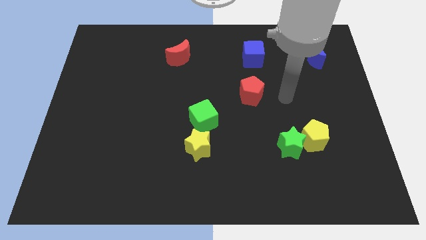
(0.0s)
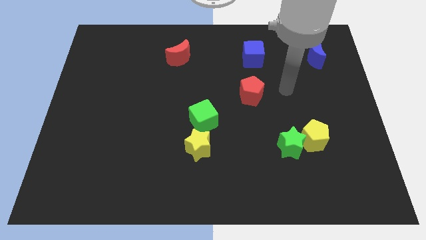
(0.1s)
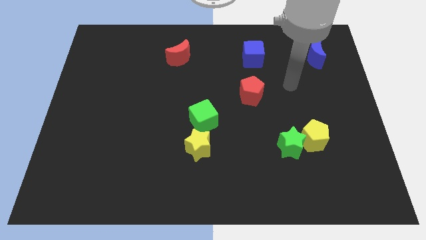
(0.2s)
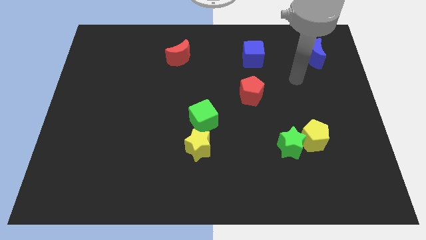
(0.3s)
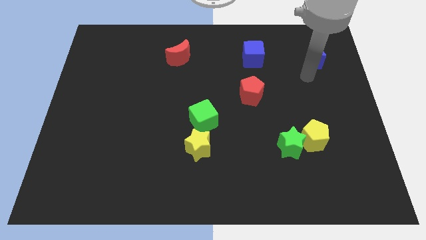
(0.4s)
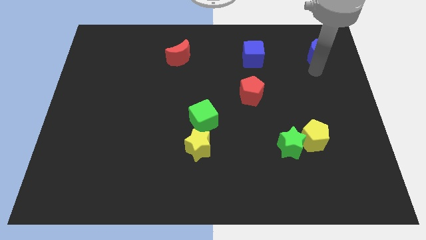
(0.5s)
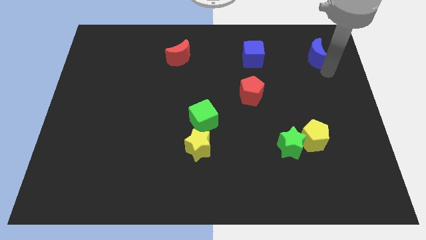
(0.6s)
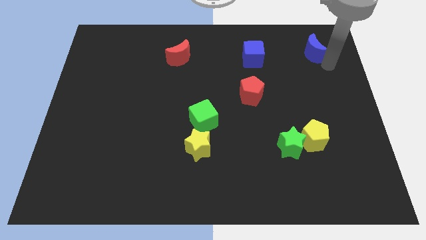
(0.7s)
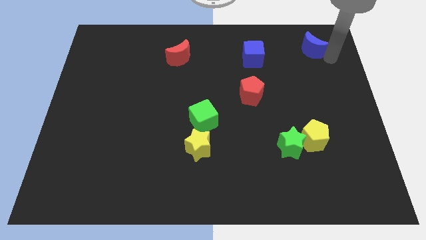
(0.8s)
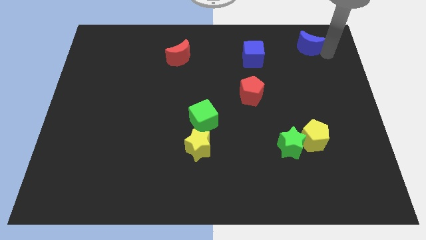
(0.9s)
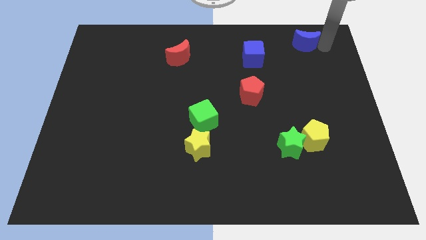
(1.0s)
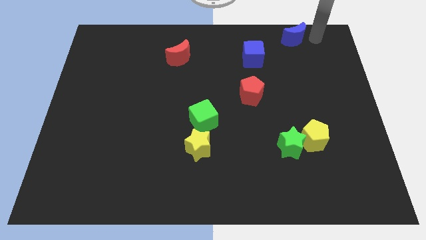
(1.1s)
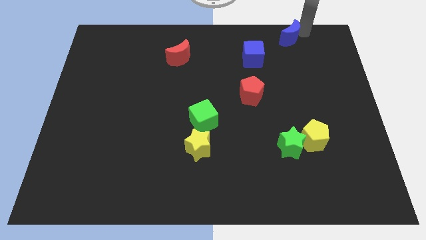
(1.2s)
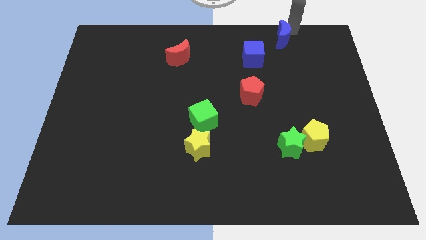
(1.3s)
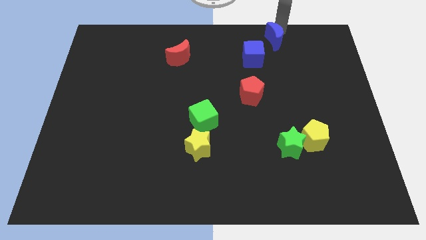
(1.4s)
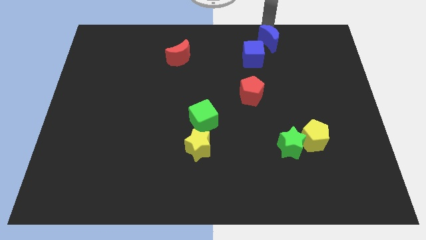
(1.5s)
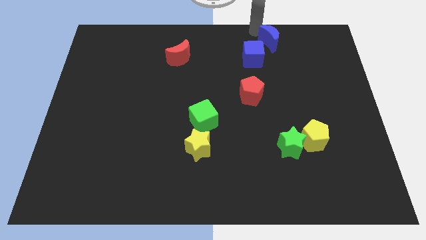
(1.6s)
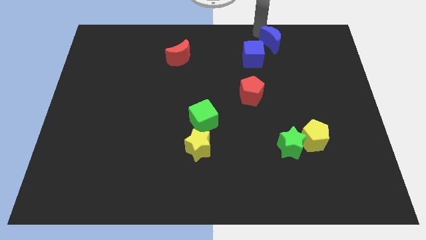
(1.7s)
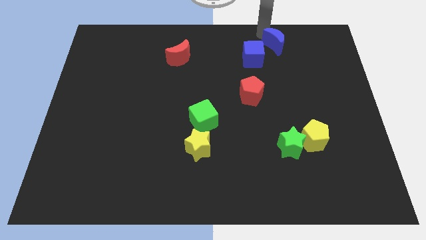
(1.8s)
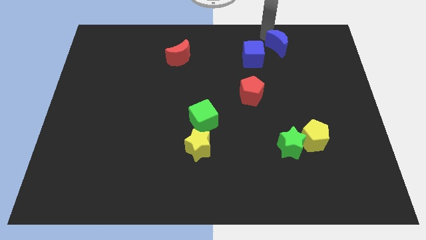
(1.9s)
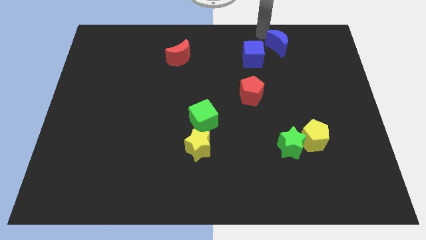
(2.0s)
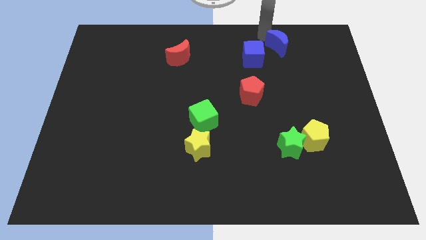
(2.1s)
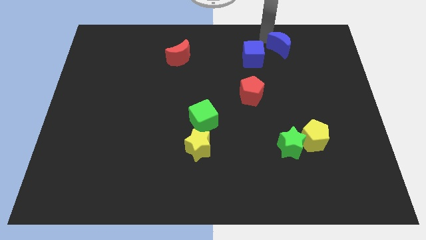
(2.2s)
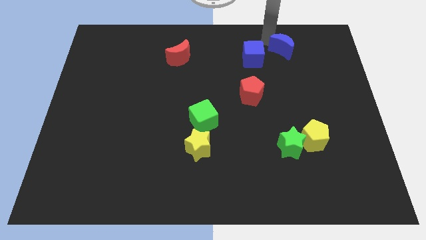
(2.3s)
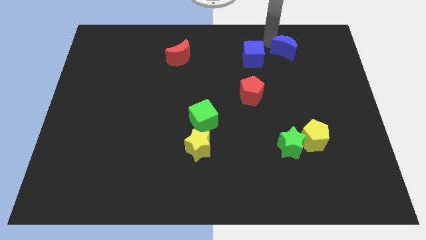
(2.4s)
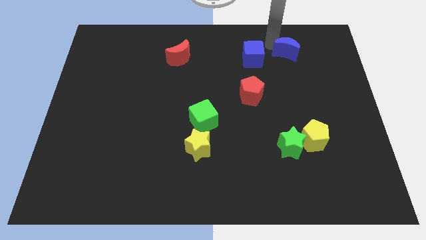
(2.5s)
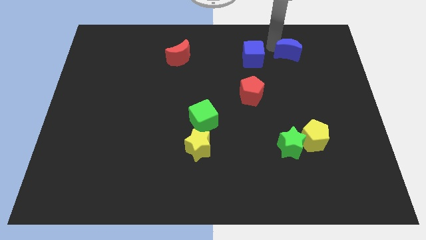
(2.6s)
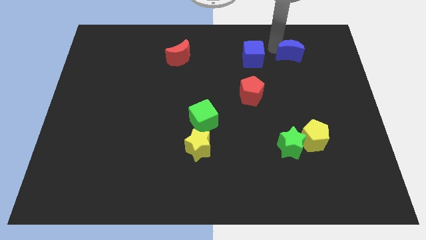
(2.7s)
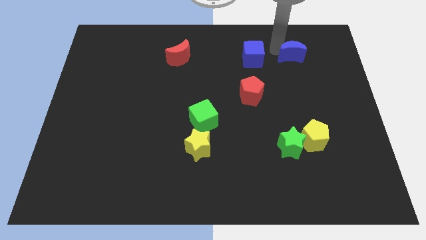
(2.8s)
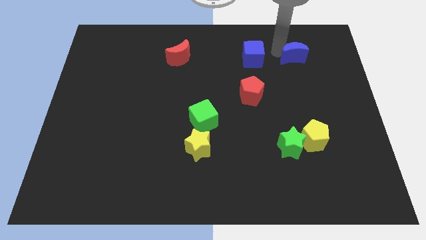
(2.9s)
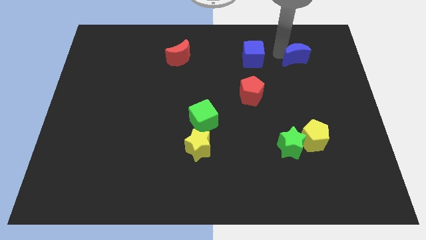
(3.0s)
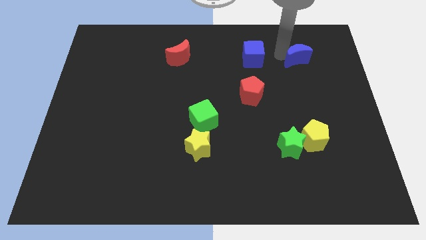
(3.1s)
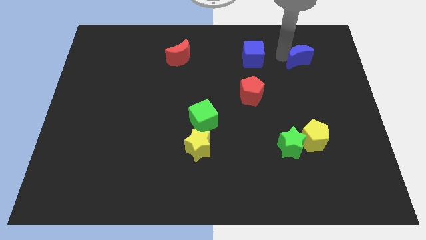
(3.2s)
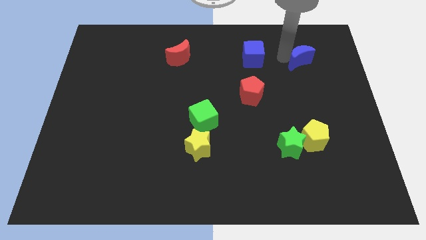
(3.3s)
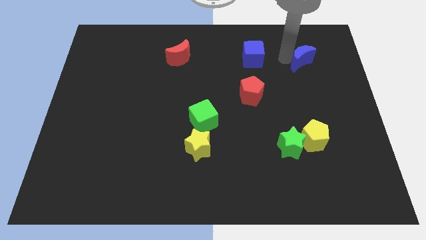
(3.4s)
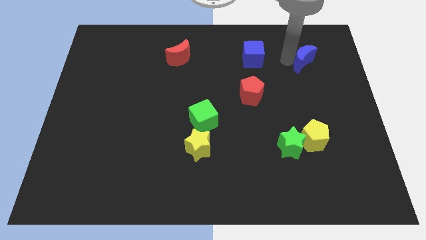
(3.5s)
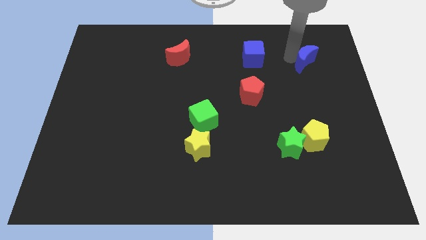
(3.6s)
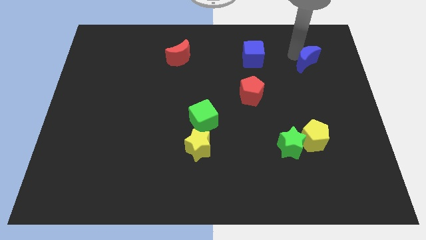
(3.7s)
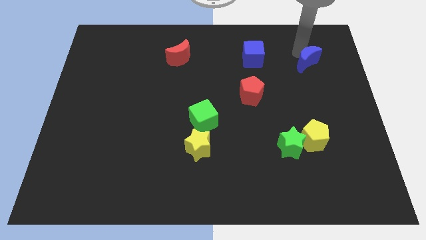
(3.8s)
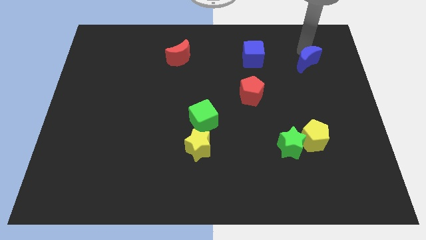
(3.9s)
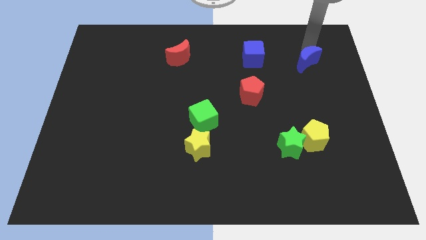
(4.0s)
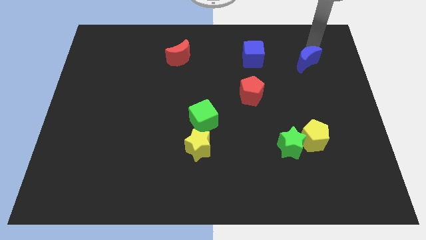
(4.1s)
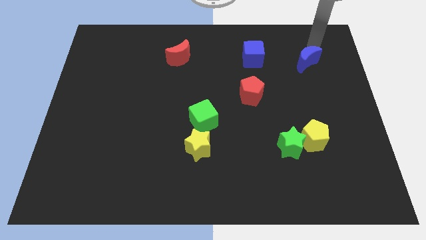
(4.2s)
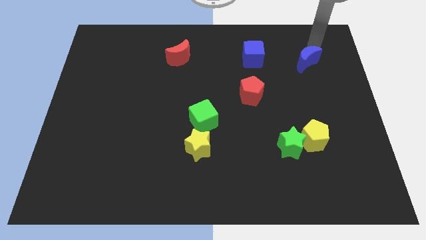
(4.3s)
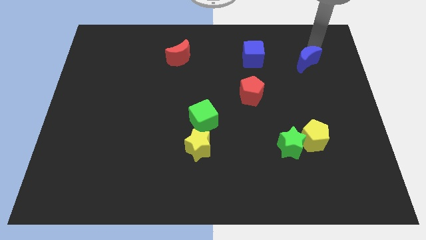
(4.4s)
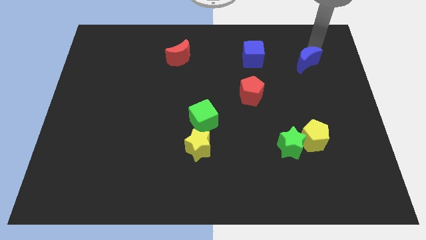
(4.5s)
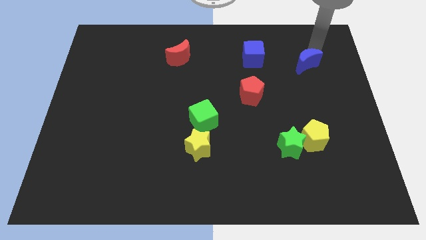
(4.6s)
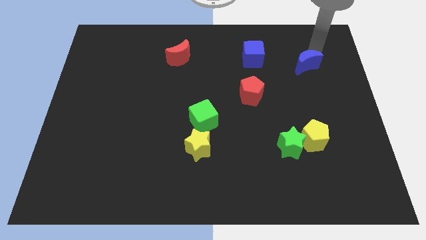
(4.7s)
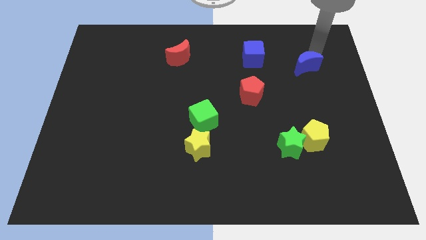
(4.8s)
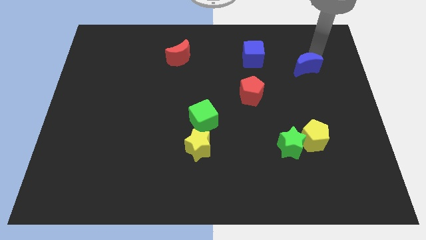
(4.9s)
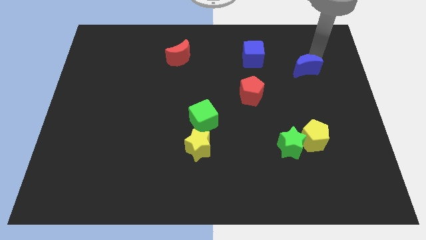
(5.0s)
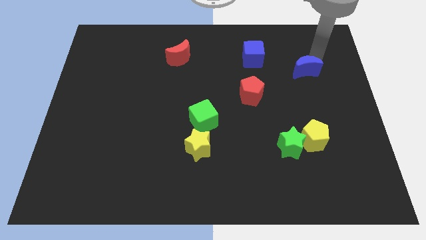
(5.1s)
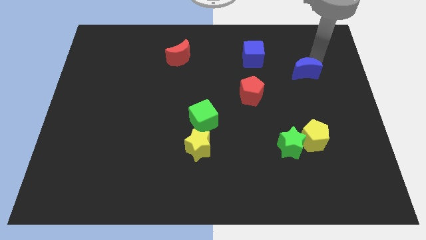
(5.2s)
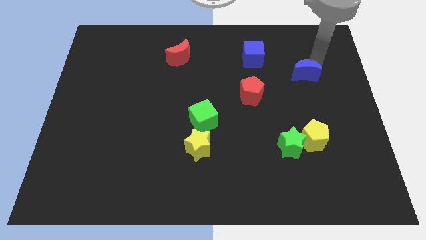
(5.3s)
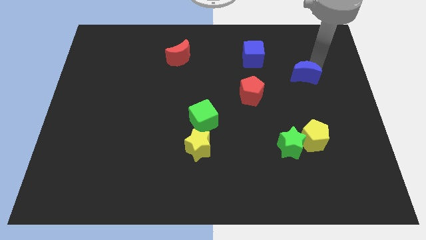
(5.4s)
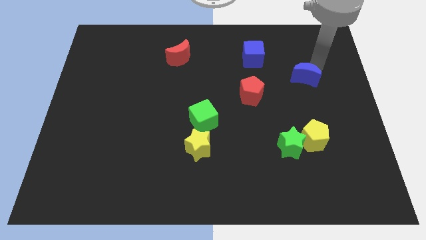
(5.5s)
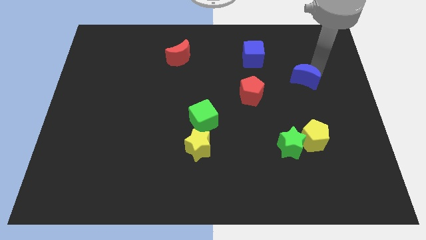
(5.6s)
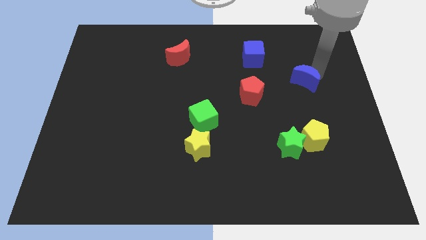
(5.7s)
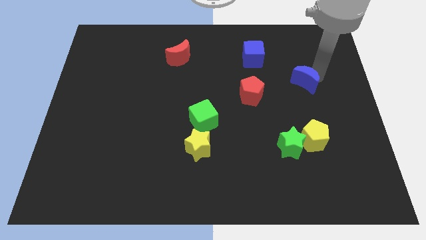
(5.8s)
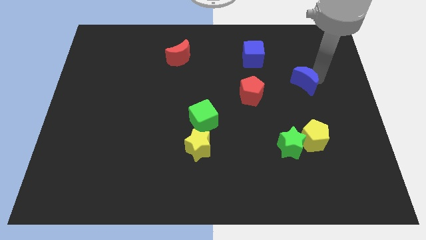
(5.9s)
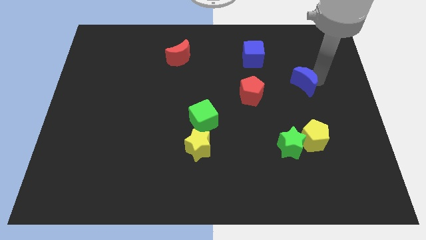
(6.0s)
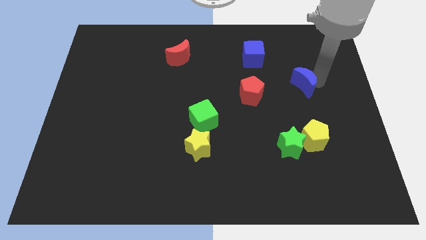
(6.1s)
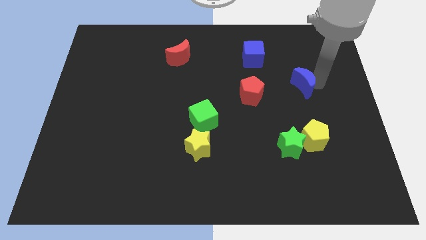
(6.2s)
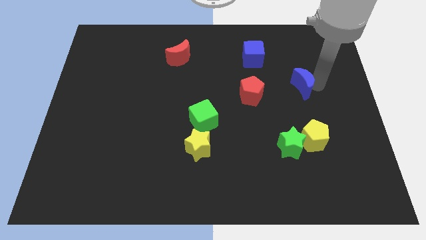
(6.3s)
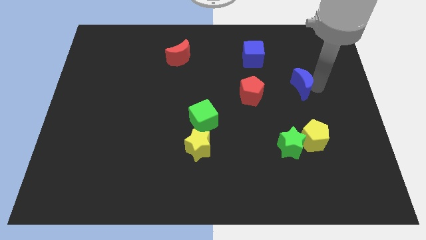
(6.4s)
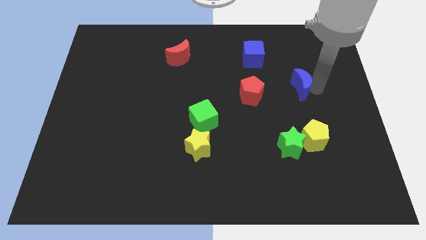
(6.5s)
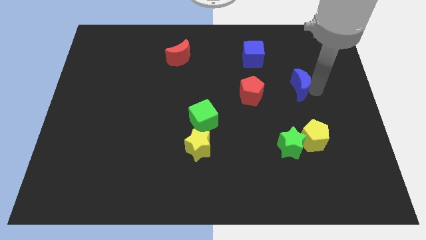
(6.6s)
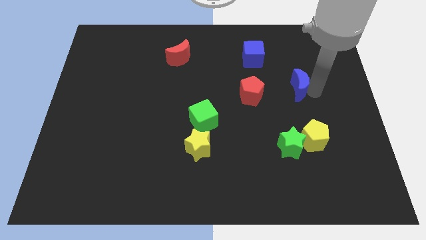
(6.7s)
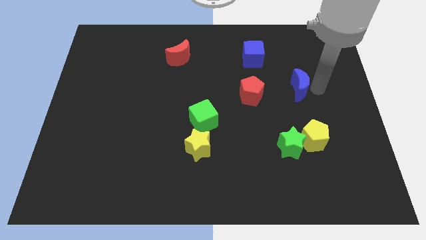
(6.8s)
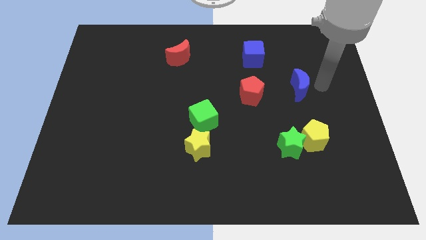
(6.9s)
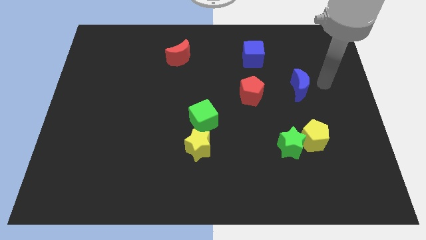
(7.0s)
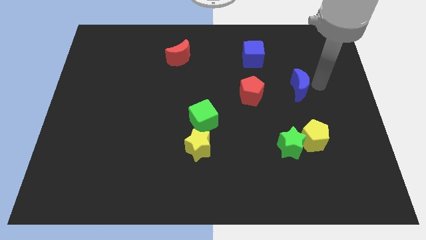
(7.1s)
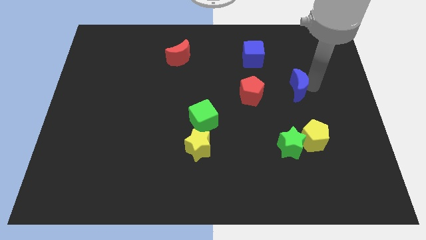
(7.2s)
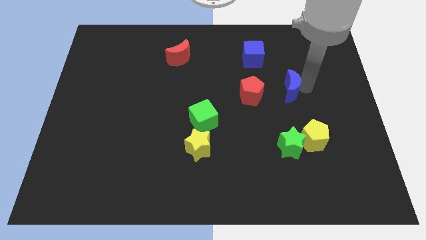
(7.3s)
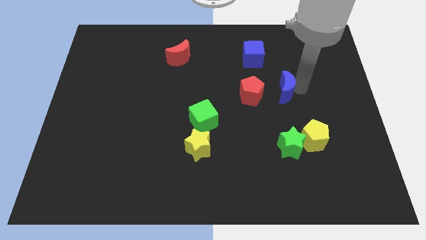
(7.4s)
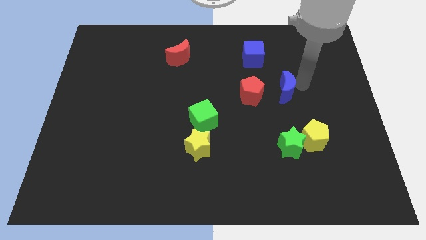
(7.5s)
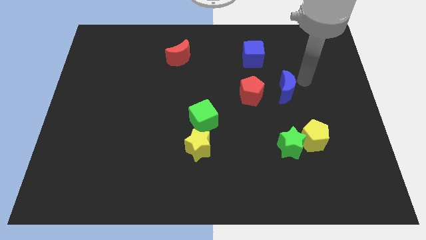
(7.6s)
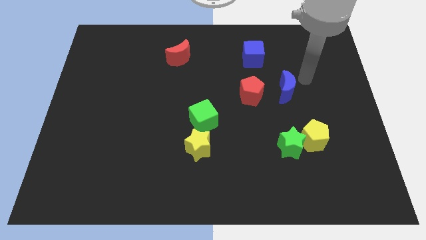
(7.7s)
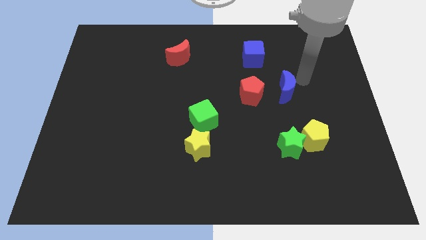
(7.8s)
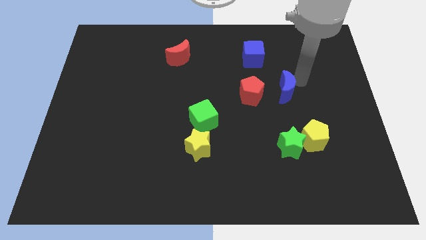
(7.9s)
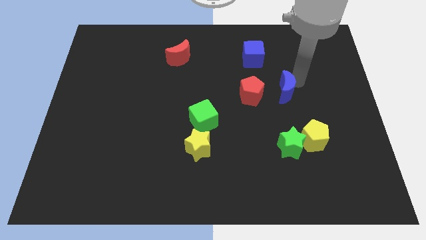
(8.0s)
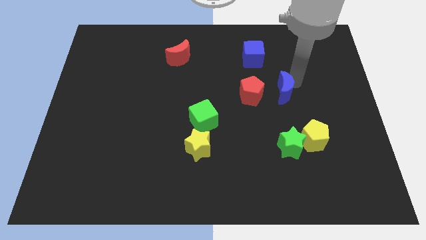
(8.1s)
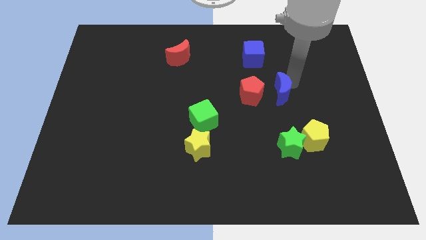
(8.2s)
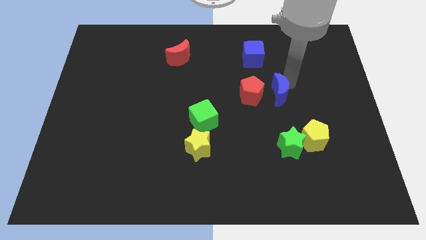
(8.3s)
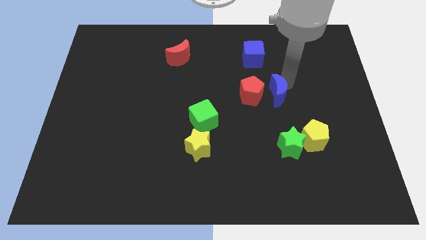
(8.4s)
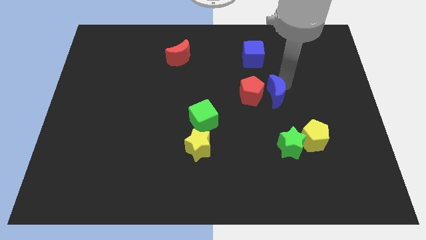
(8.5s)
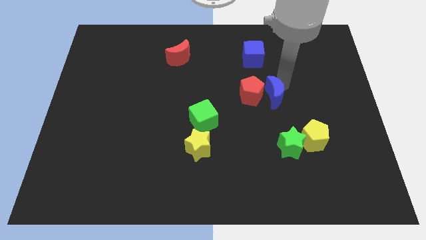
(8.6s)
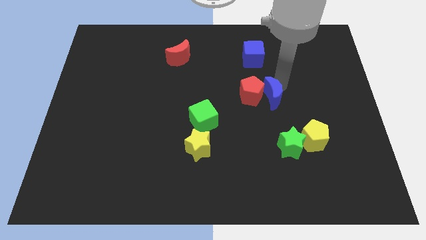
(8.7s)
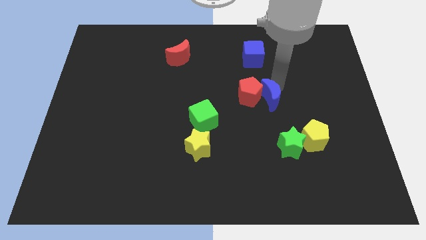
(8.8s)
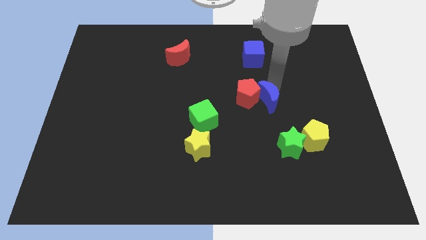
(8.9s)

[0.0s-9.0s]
move the blue moon down and then to the left
